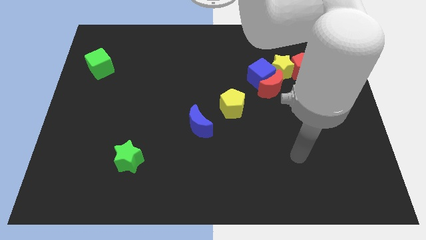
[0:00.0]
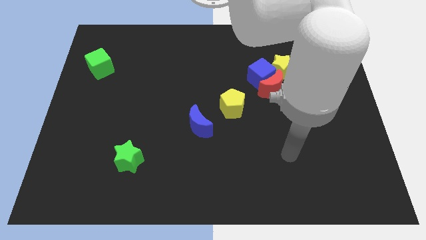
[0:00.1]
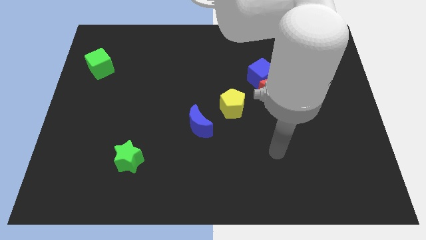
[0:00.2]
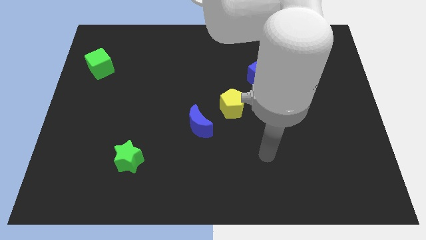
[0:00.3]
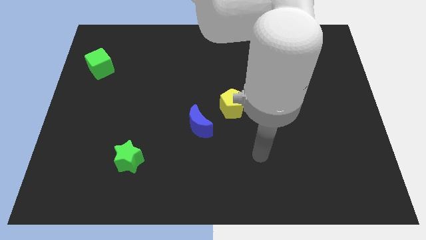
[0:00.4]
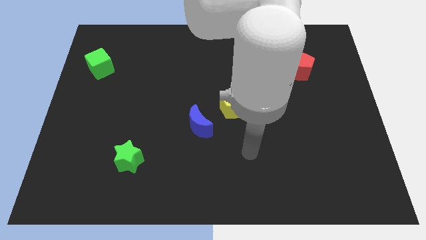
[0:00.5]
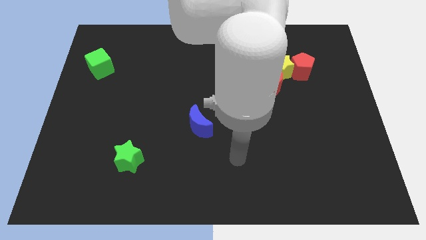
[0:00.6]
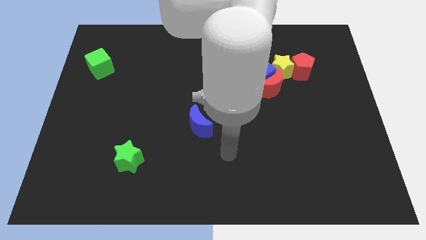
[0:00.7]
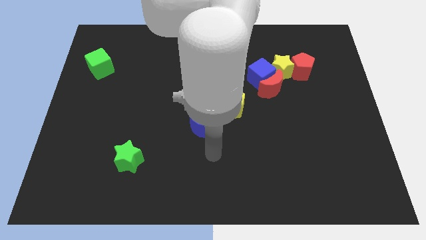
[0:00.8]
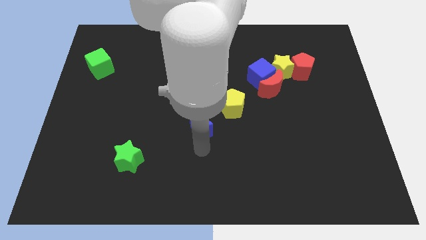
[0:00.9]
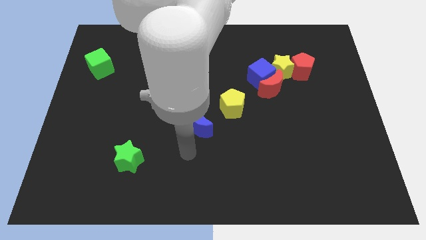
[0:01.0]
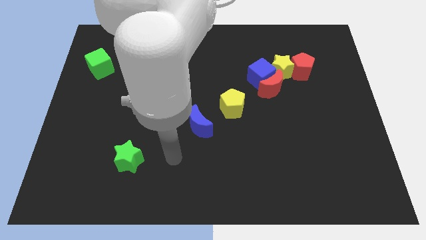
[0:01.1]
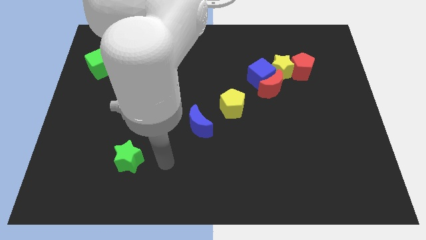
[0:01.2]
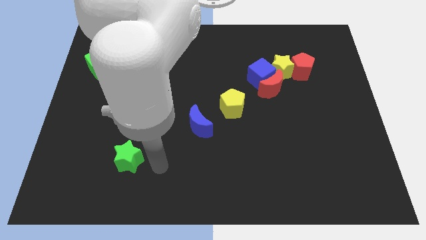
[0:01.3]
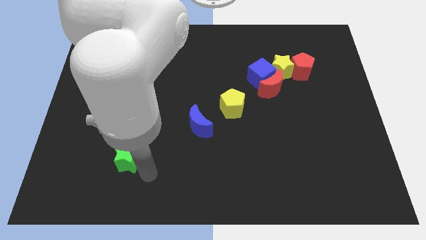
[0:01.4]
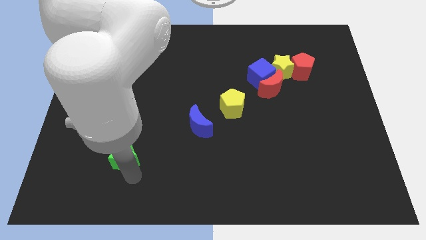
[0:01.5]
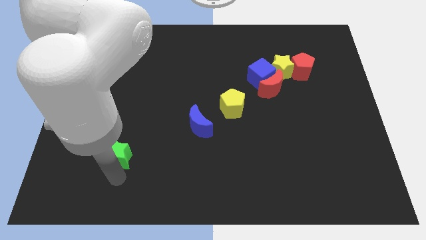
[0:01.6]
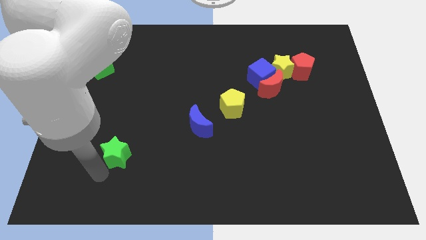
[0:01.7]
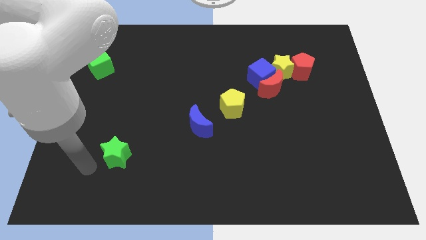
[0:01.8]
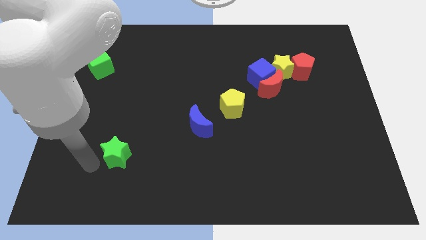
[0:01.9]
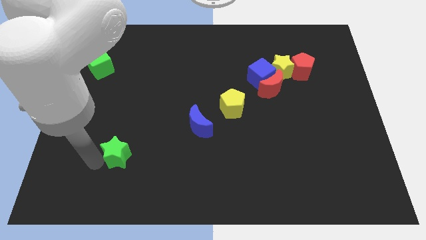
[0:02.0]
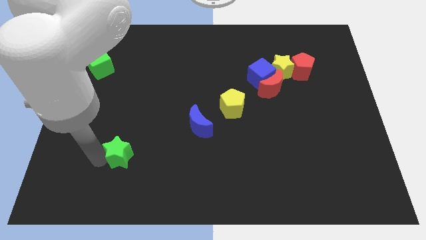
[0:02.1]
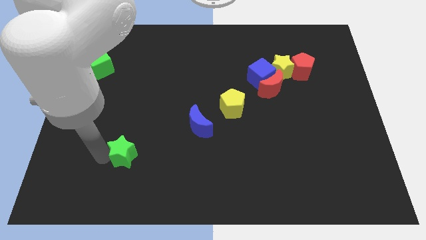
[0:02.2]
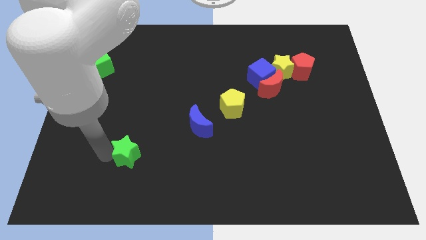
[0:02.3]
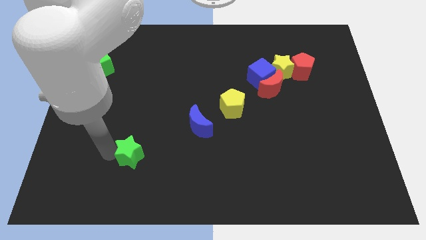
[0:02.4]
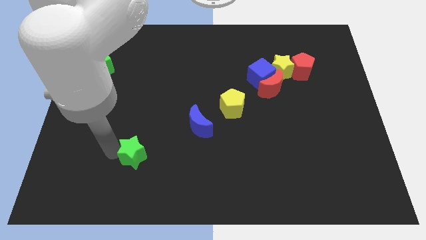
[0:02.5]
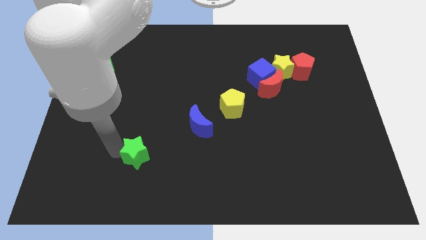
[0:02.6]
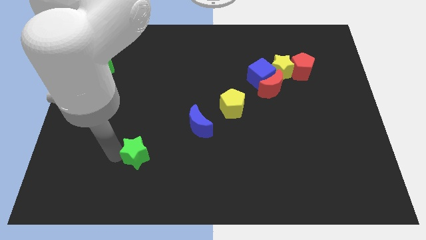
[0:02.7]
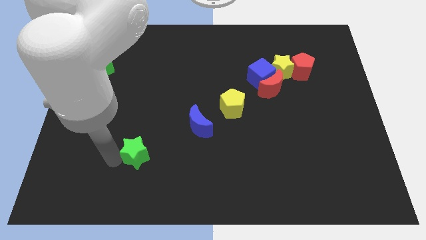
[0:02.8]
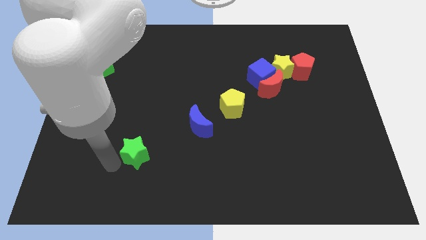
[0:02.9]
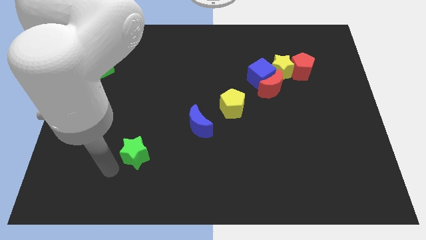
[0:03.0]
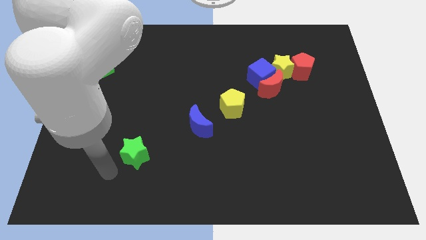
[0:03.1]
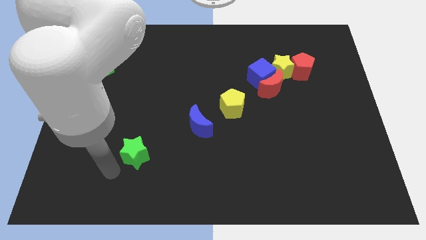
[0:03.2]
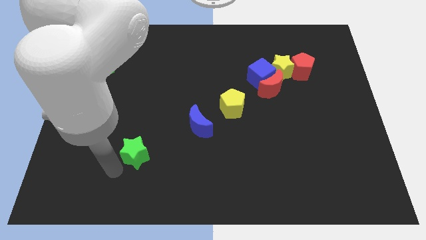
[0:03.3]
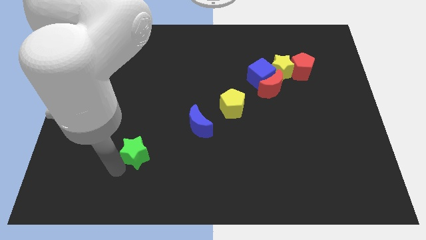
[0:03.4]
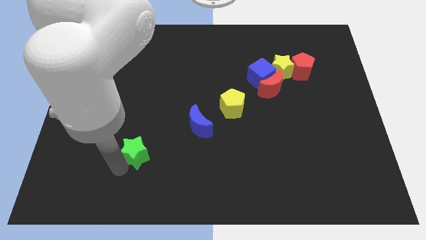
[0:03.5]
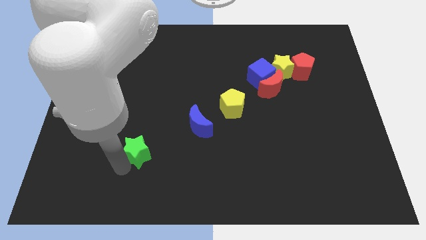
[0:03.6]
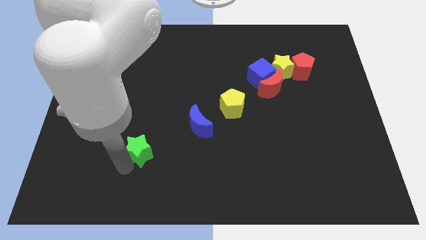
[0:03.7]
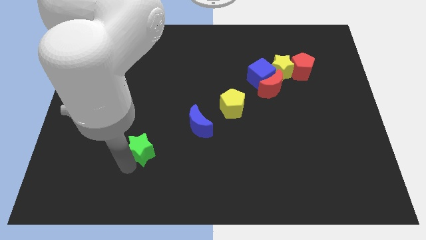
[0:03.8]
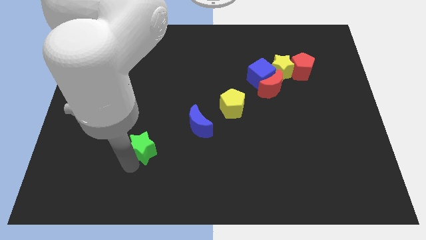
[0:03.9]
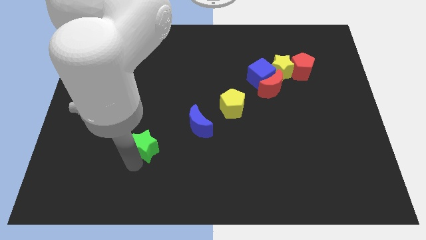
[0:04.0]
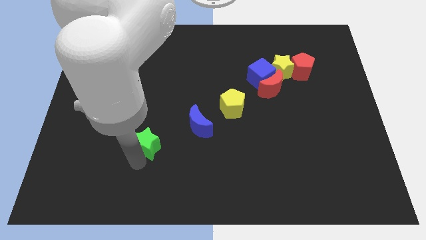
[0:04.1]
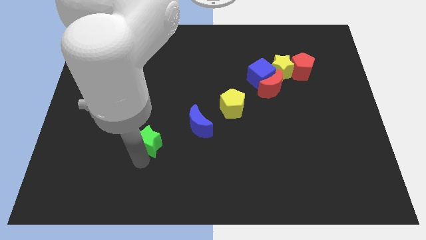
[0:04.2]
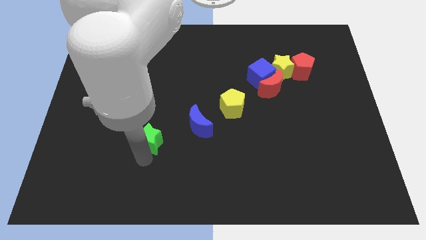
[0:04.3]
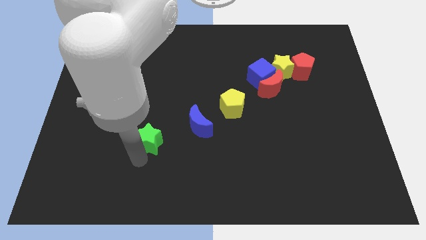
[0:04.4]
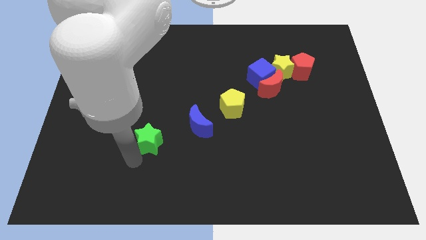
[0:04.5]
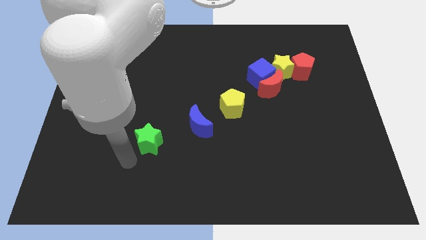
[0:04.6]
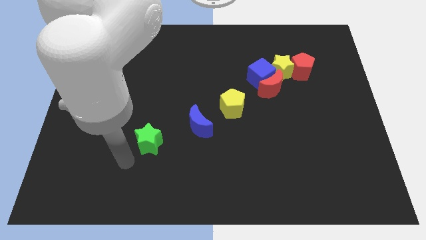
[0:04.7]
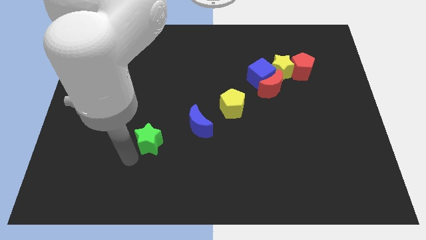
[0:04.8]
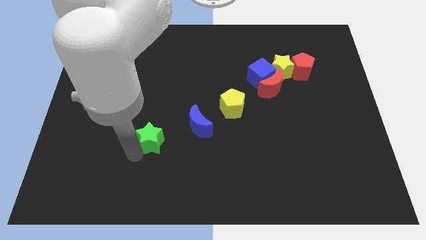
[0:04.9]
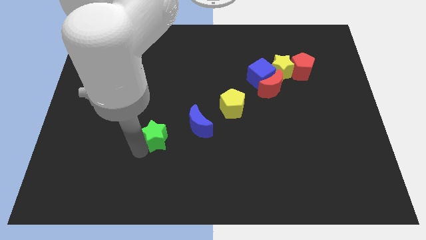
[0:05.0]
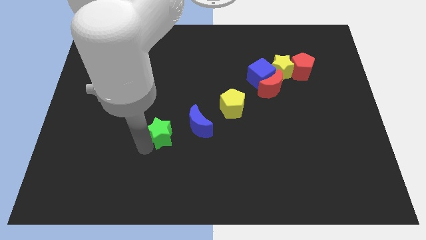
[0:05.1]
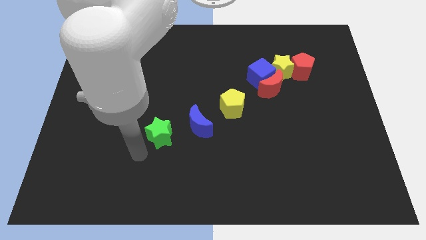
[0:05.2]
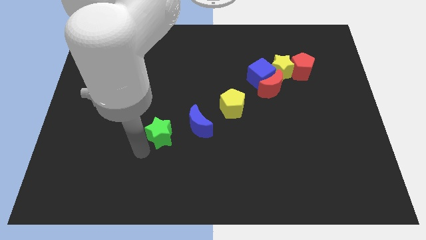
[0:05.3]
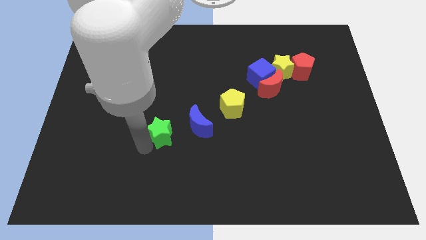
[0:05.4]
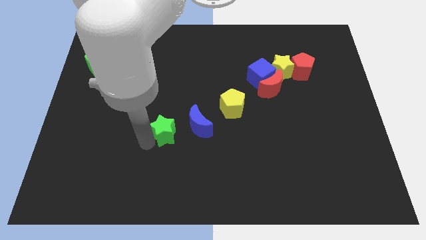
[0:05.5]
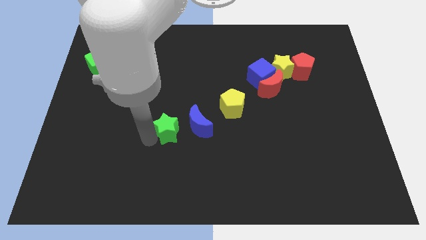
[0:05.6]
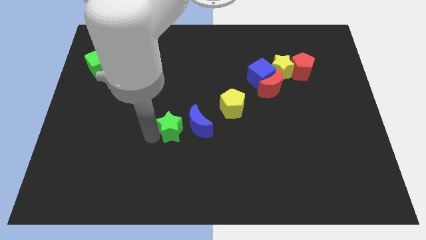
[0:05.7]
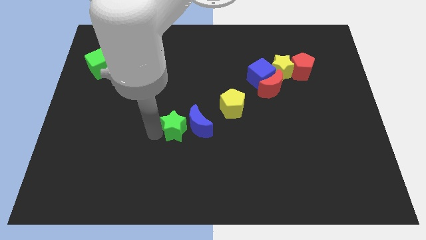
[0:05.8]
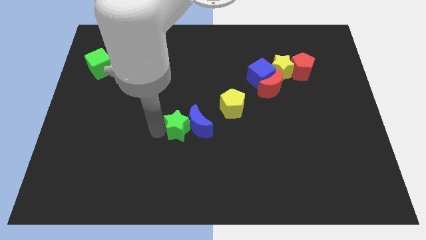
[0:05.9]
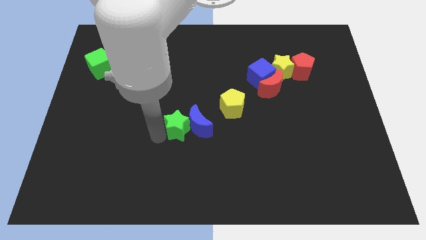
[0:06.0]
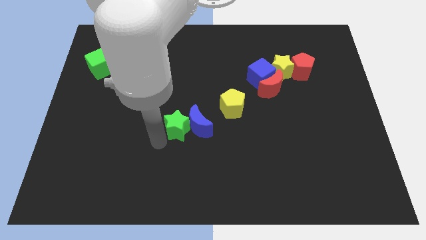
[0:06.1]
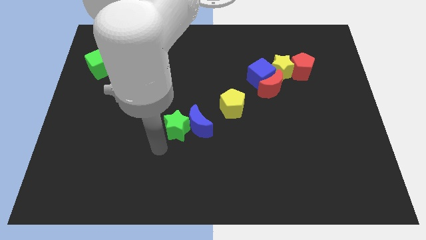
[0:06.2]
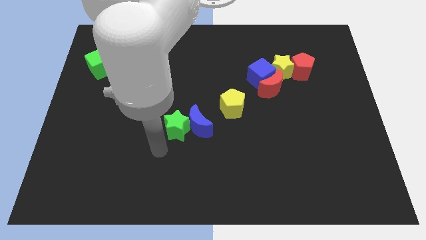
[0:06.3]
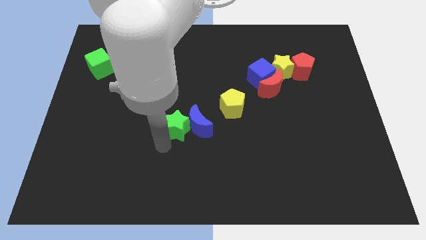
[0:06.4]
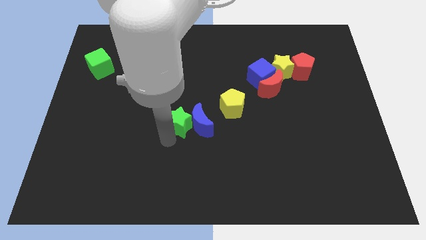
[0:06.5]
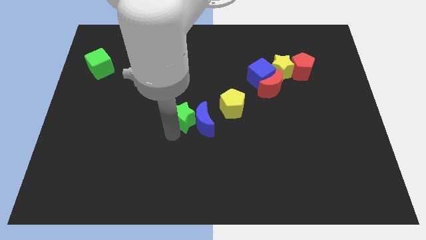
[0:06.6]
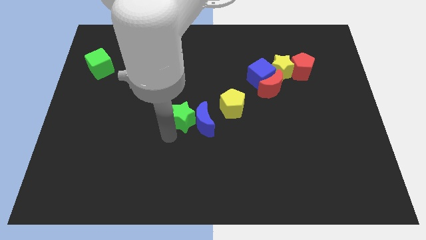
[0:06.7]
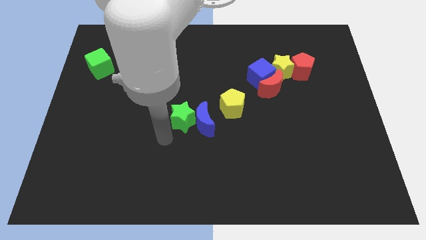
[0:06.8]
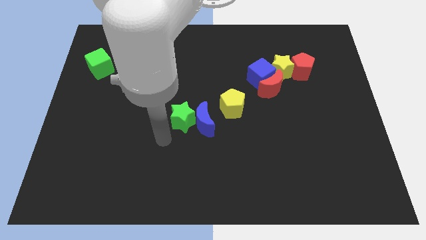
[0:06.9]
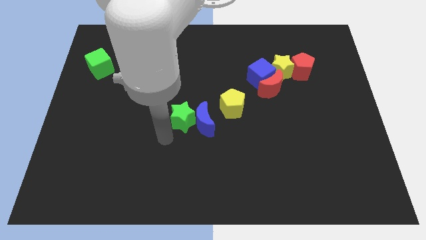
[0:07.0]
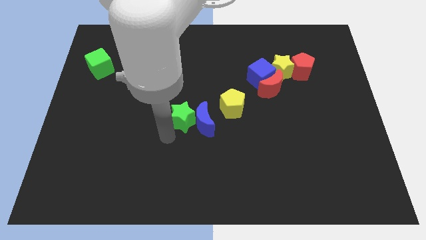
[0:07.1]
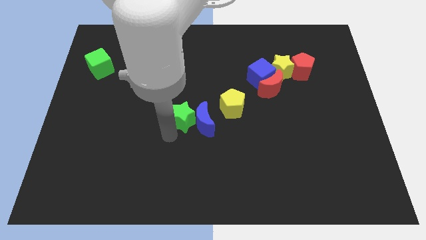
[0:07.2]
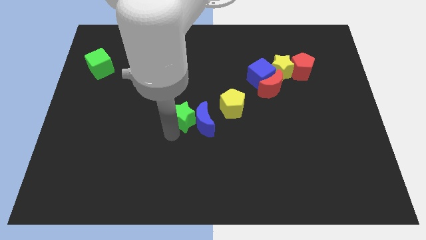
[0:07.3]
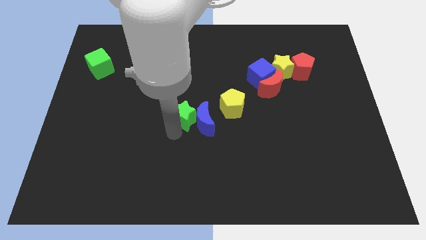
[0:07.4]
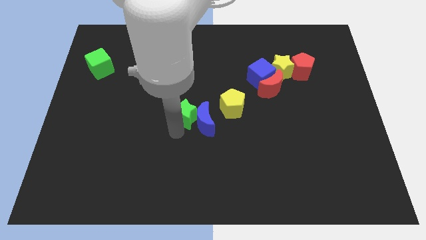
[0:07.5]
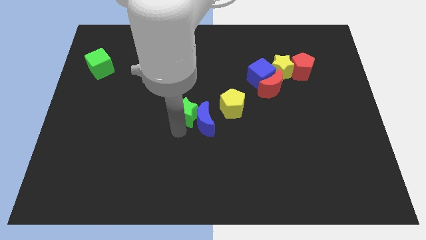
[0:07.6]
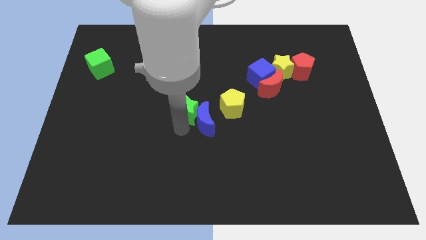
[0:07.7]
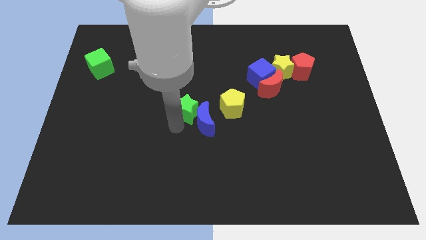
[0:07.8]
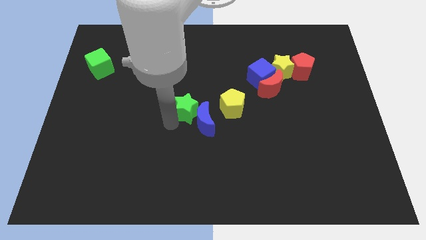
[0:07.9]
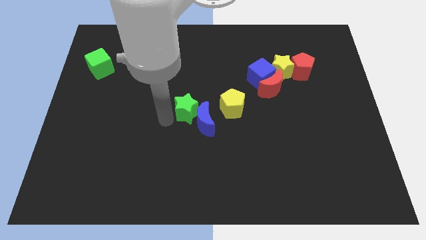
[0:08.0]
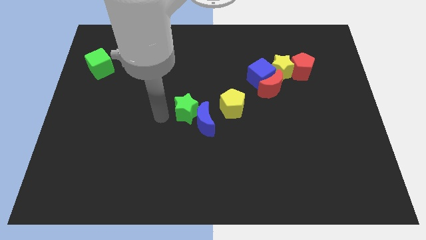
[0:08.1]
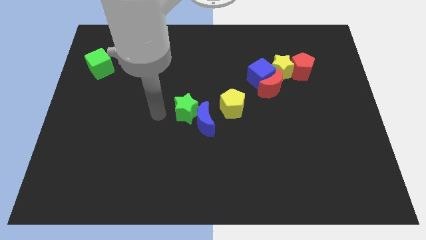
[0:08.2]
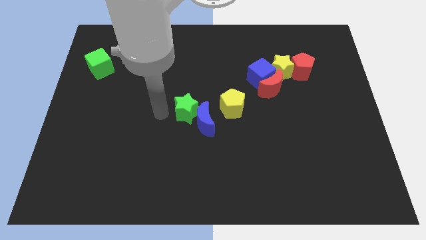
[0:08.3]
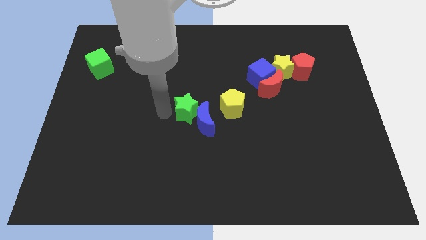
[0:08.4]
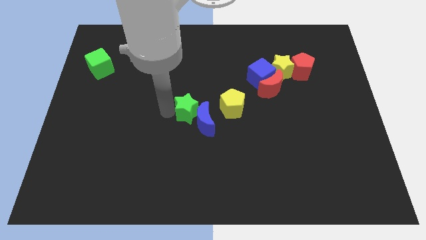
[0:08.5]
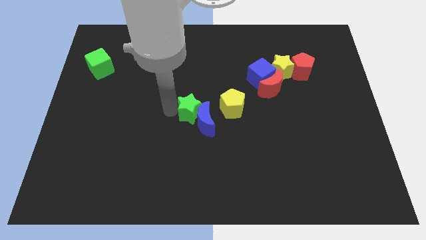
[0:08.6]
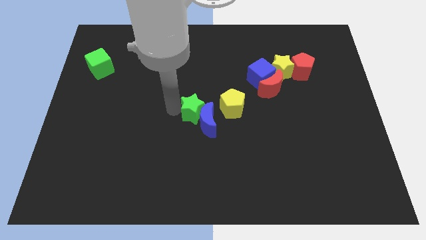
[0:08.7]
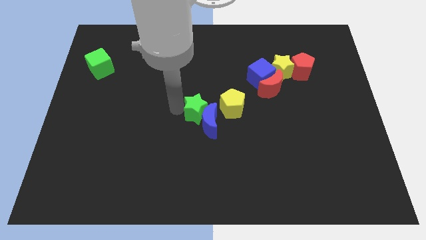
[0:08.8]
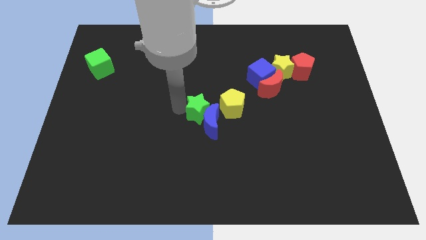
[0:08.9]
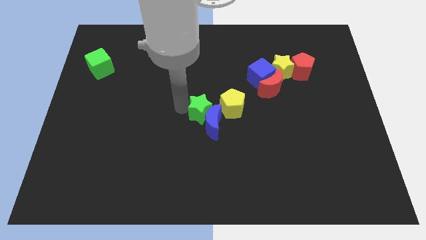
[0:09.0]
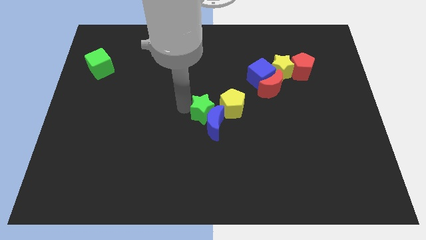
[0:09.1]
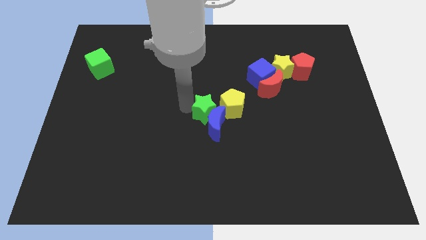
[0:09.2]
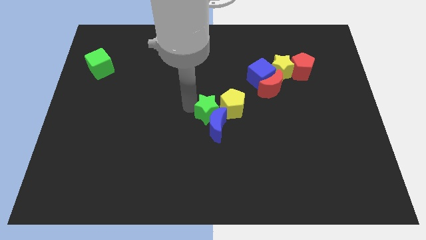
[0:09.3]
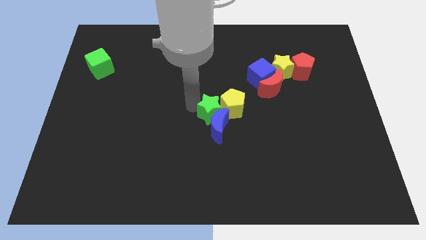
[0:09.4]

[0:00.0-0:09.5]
put the green star to the yellow pentagon
